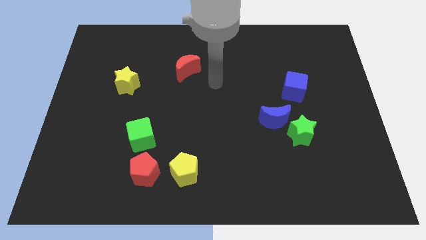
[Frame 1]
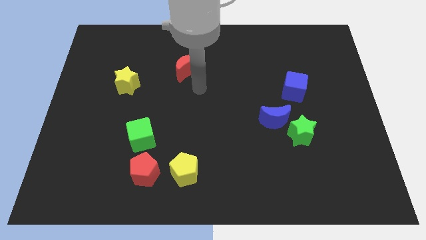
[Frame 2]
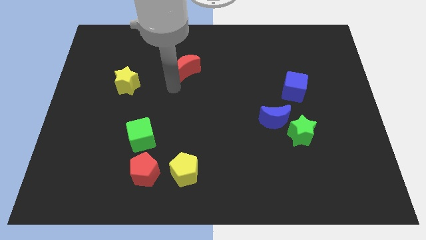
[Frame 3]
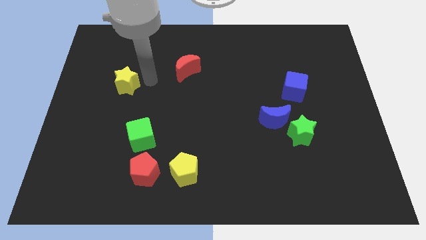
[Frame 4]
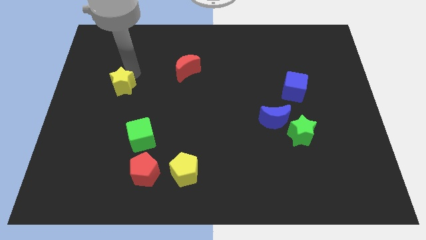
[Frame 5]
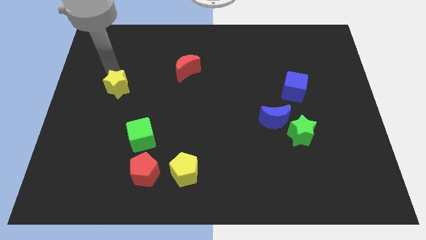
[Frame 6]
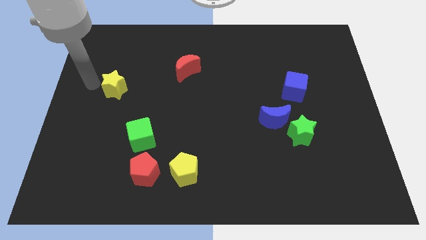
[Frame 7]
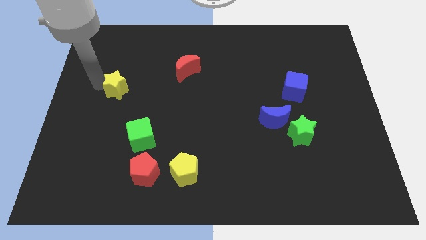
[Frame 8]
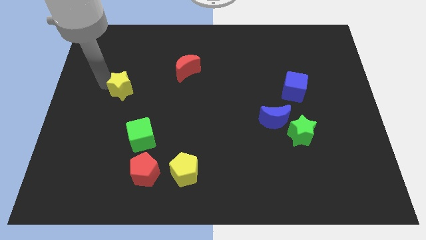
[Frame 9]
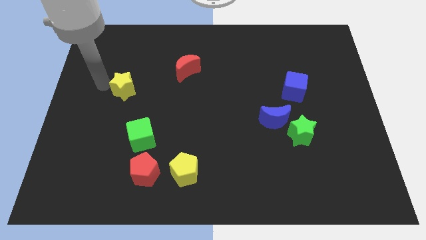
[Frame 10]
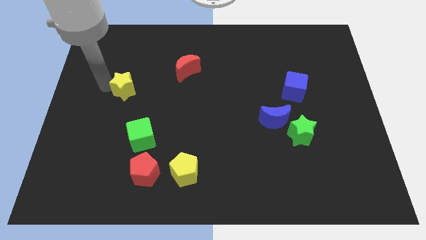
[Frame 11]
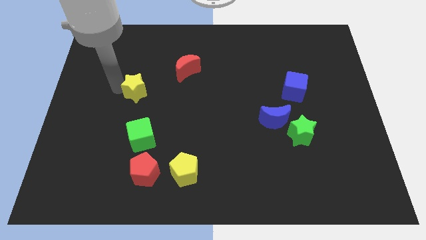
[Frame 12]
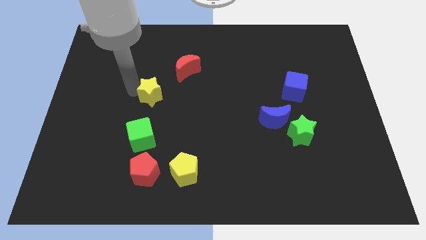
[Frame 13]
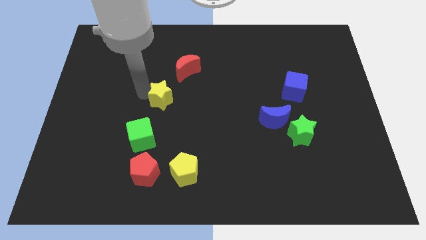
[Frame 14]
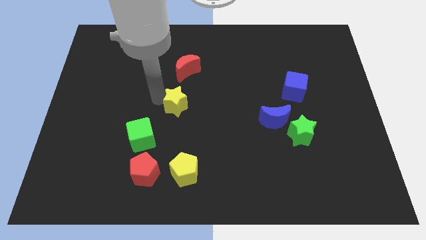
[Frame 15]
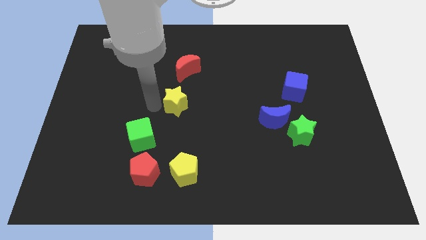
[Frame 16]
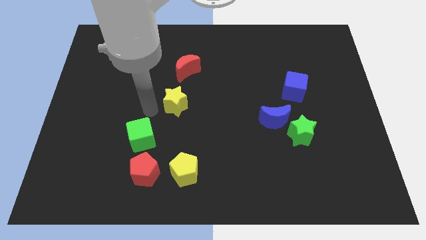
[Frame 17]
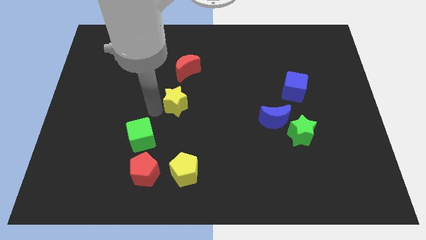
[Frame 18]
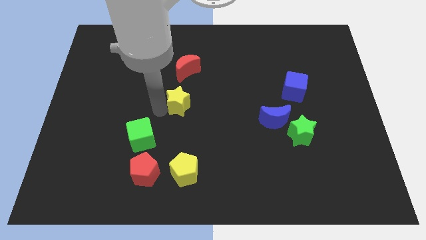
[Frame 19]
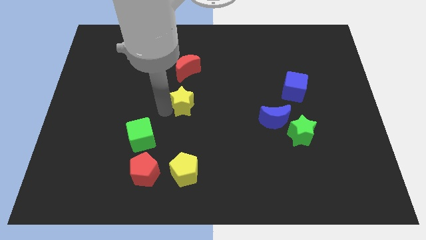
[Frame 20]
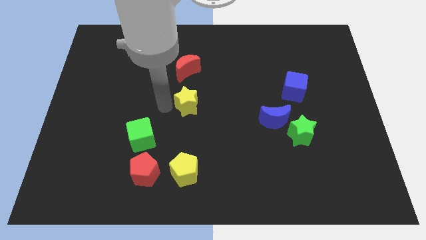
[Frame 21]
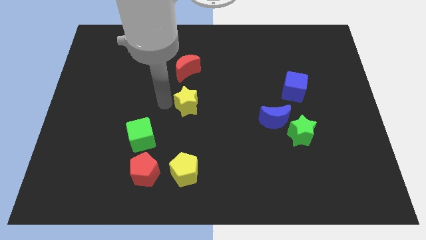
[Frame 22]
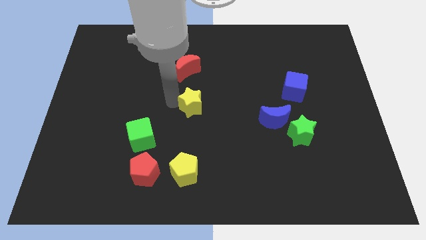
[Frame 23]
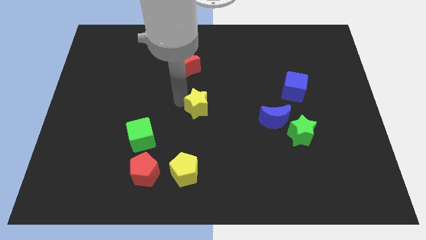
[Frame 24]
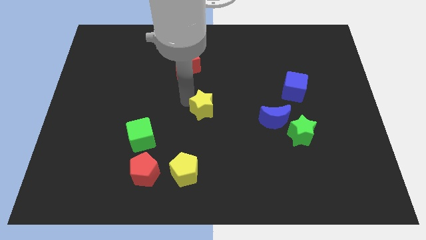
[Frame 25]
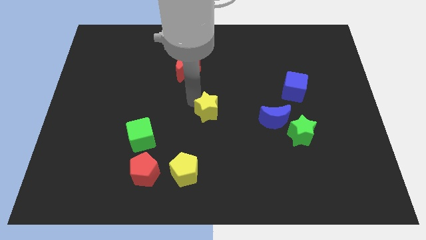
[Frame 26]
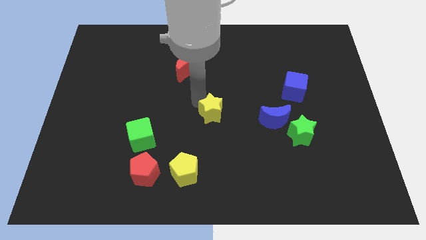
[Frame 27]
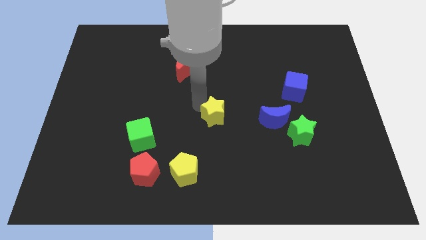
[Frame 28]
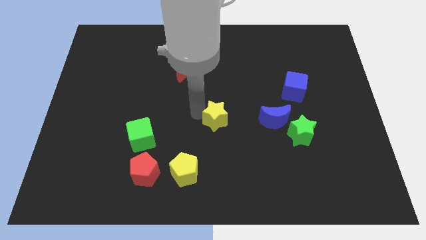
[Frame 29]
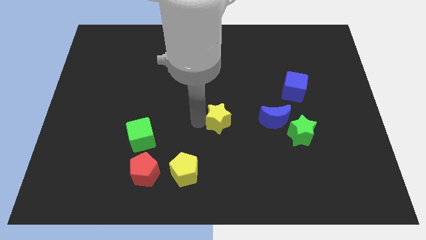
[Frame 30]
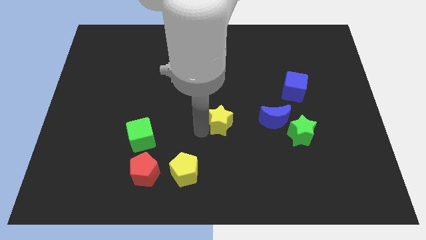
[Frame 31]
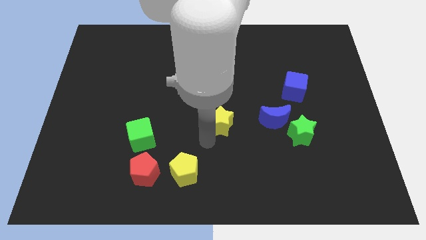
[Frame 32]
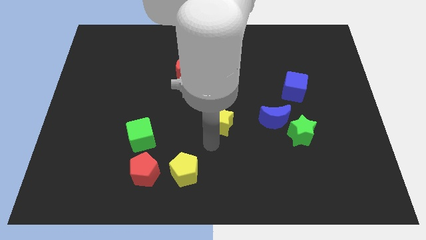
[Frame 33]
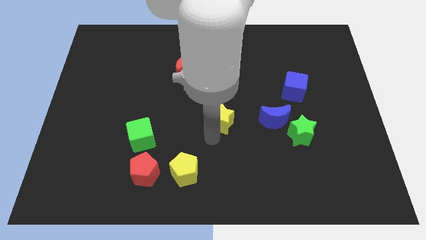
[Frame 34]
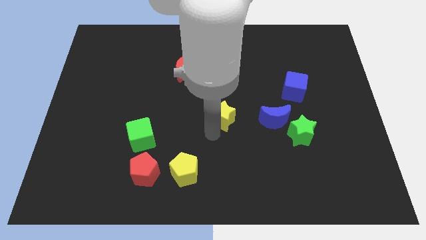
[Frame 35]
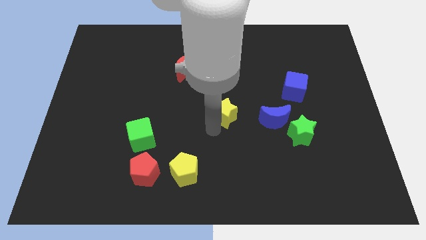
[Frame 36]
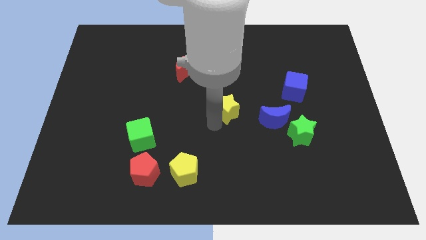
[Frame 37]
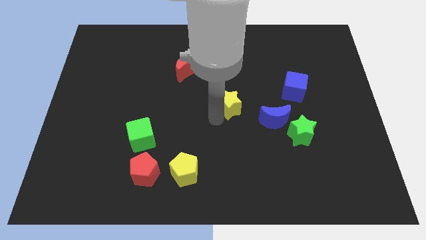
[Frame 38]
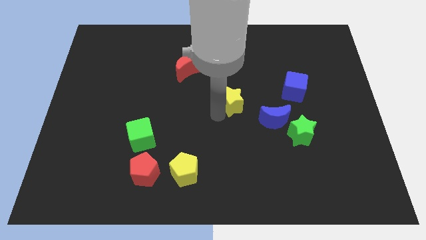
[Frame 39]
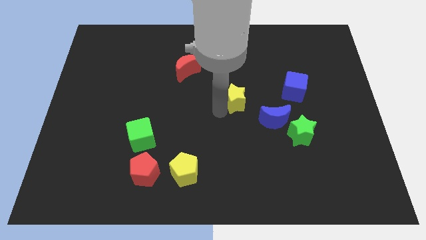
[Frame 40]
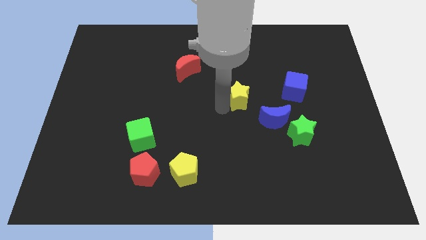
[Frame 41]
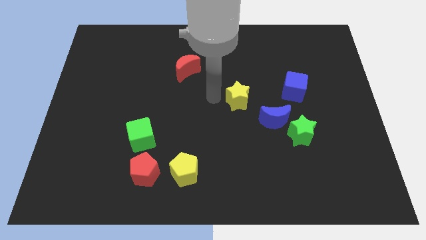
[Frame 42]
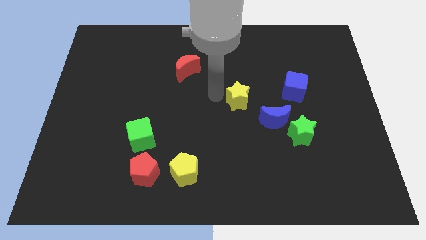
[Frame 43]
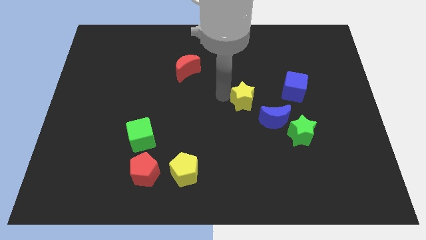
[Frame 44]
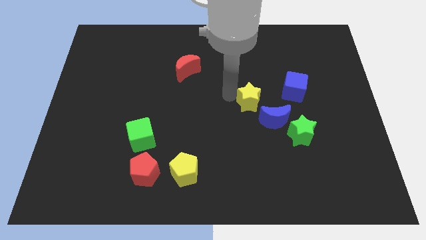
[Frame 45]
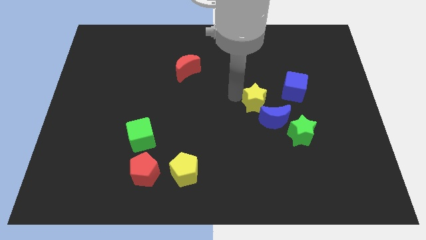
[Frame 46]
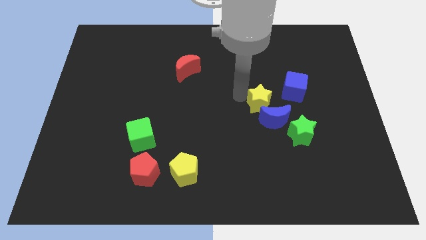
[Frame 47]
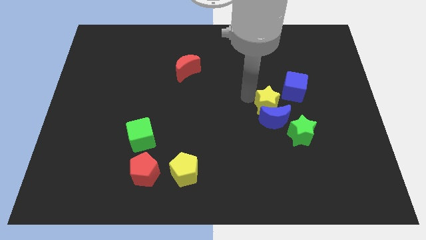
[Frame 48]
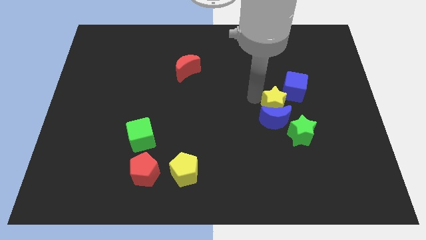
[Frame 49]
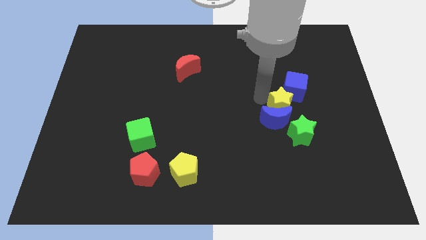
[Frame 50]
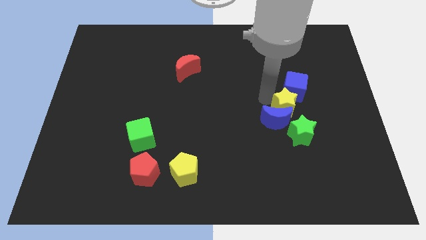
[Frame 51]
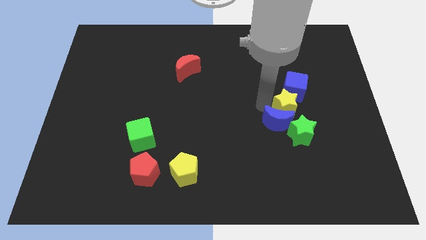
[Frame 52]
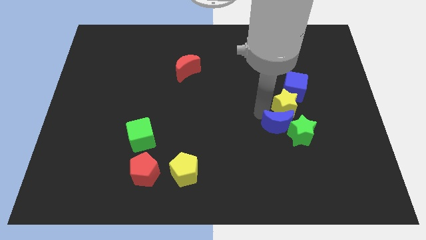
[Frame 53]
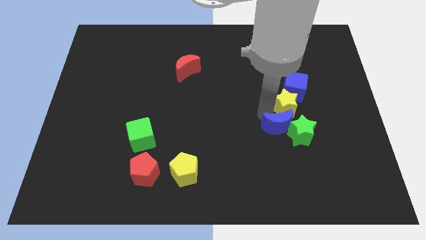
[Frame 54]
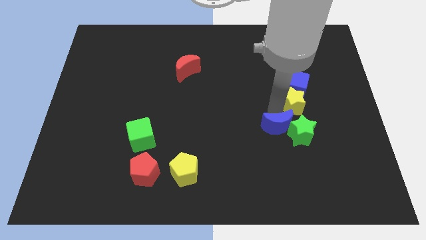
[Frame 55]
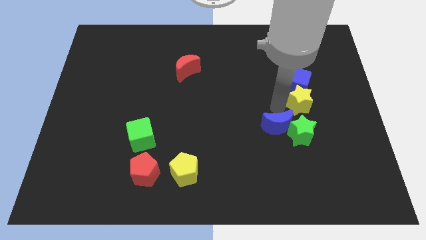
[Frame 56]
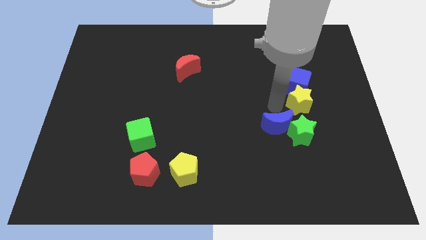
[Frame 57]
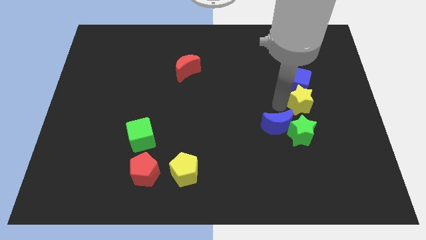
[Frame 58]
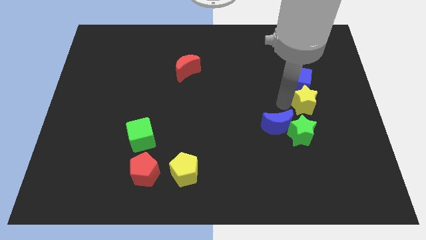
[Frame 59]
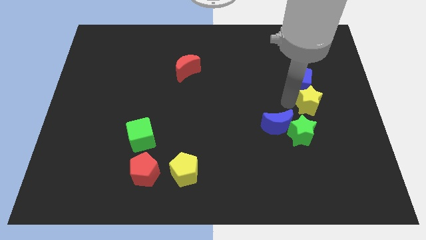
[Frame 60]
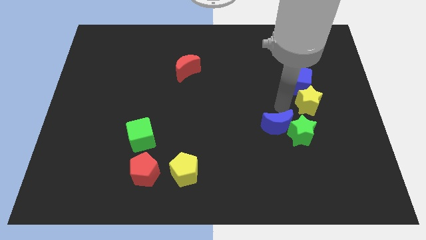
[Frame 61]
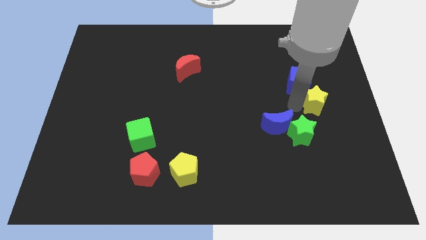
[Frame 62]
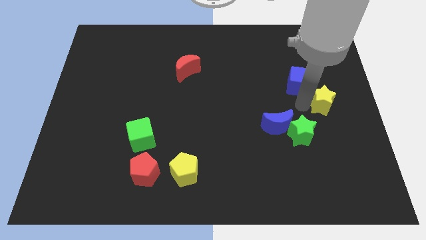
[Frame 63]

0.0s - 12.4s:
move the yellow star to the right side of the board

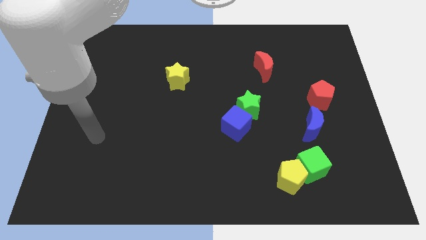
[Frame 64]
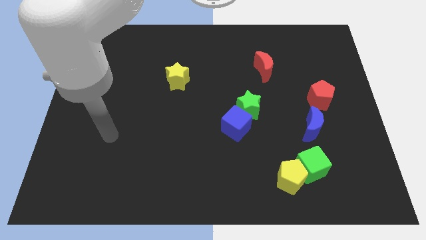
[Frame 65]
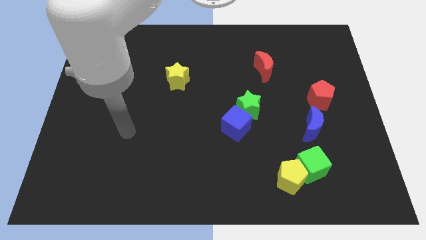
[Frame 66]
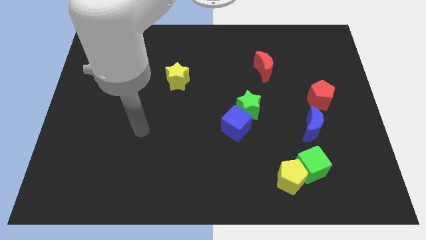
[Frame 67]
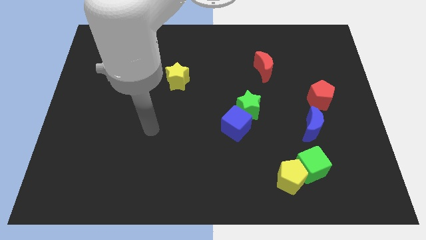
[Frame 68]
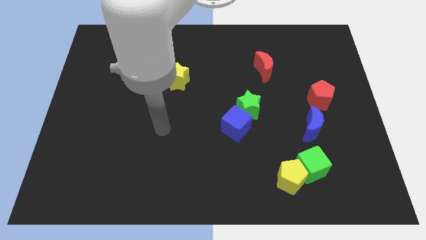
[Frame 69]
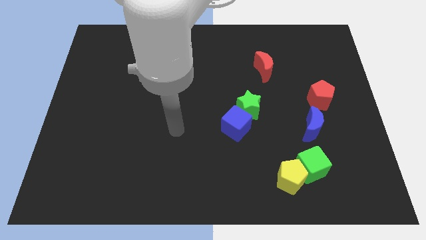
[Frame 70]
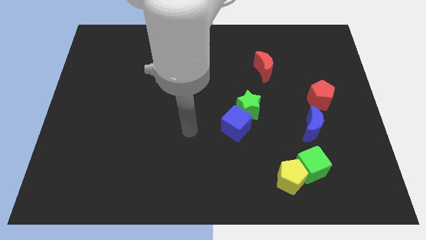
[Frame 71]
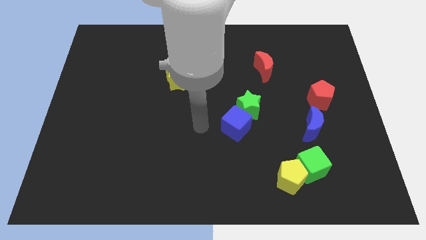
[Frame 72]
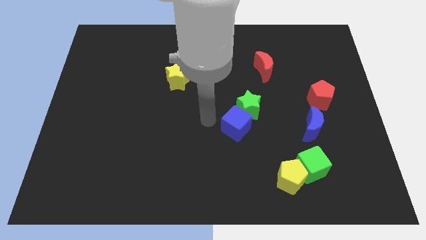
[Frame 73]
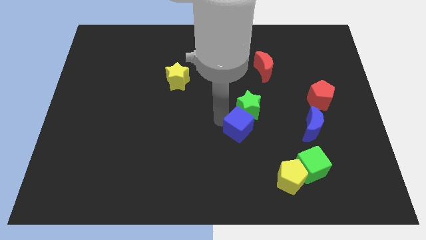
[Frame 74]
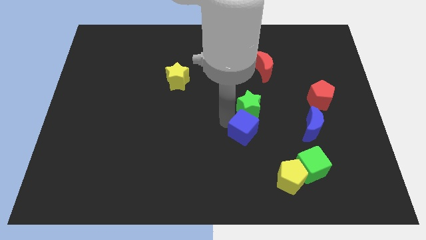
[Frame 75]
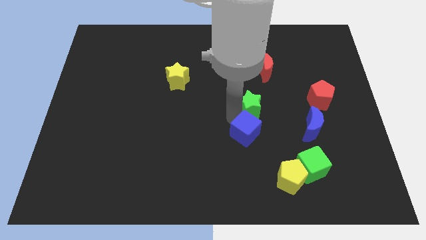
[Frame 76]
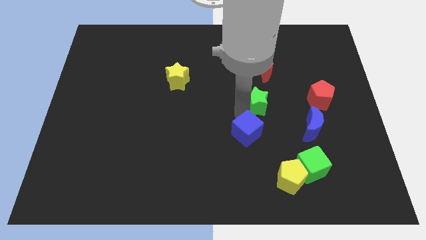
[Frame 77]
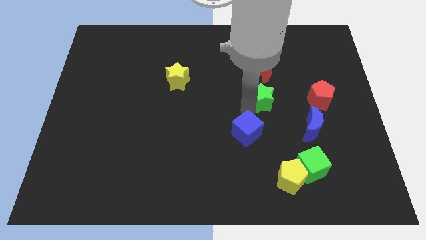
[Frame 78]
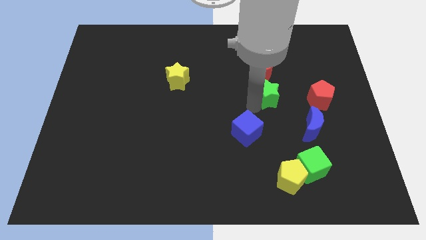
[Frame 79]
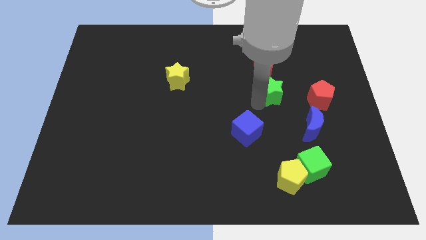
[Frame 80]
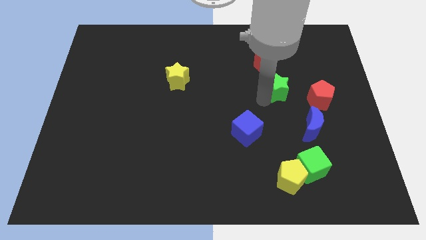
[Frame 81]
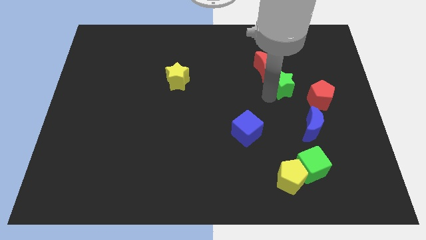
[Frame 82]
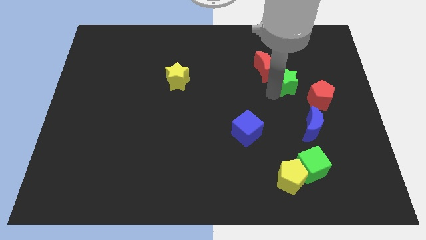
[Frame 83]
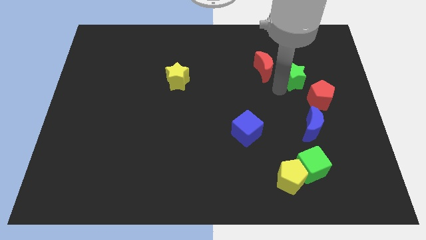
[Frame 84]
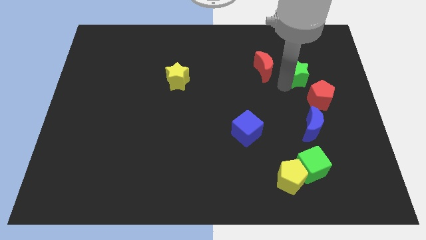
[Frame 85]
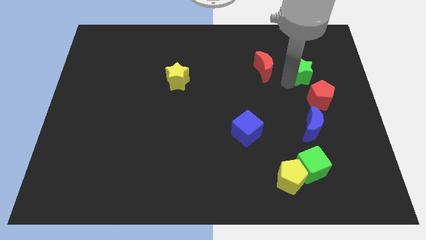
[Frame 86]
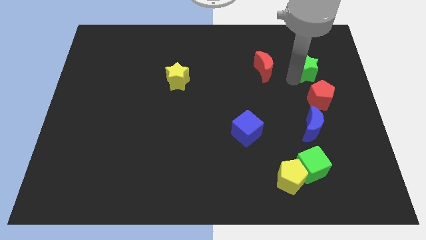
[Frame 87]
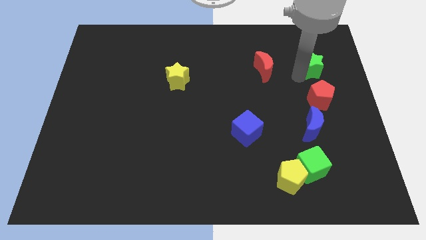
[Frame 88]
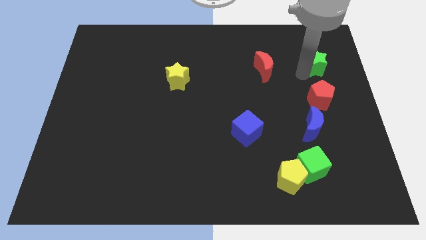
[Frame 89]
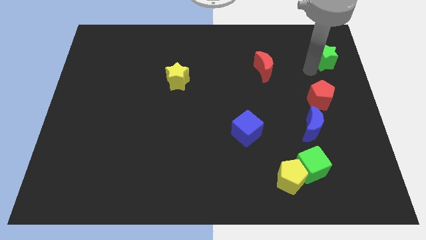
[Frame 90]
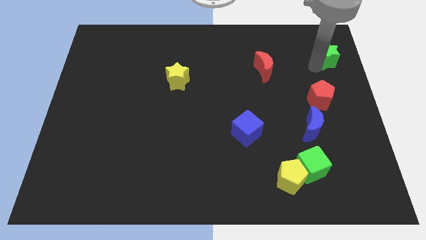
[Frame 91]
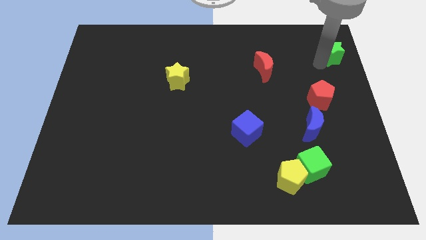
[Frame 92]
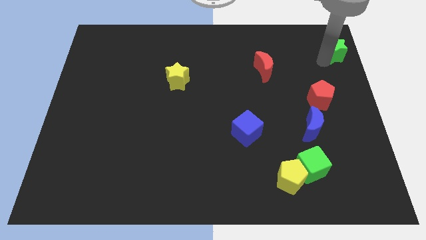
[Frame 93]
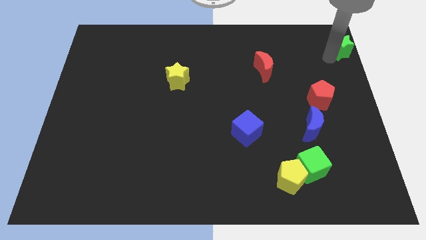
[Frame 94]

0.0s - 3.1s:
slide the green star to the top right of the board
